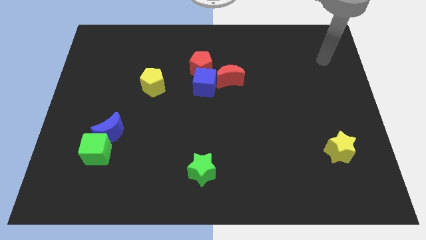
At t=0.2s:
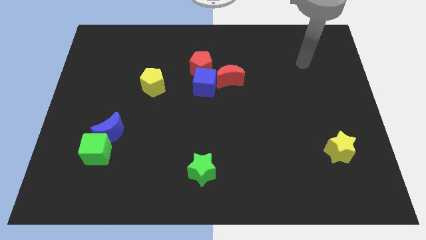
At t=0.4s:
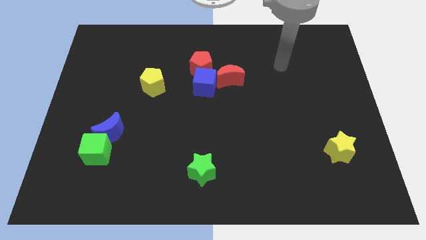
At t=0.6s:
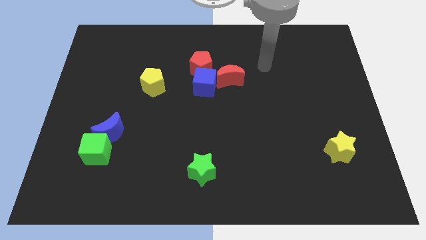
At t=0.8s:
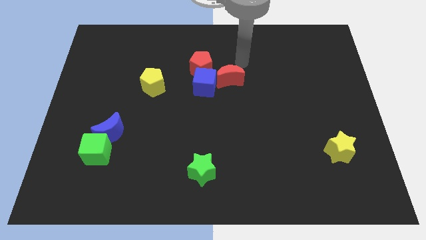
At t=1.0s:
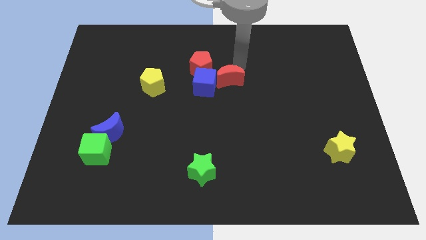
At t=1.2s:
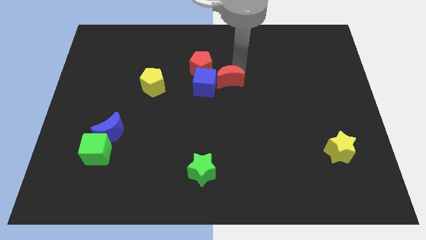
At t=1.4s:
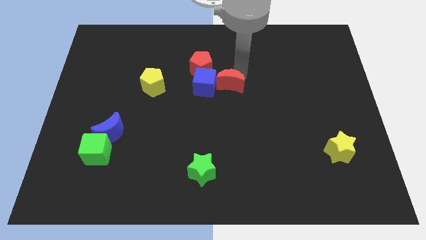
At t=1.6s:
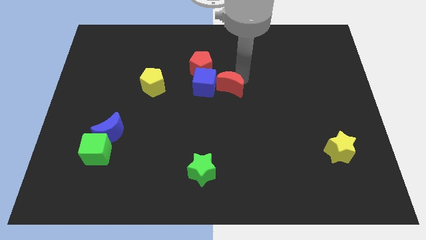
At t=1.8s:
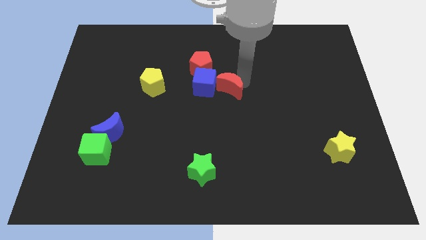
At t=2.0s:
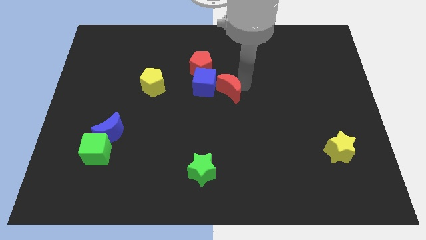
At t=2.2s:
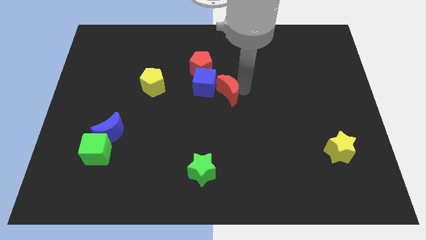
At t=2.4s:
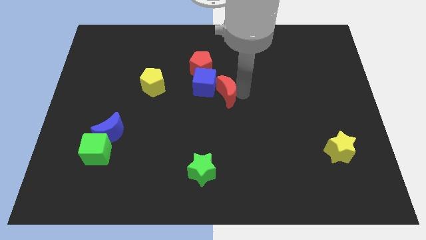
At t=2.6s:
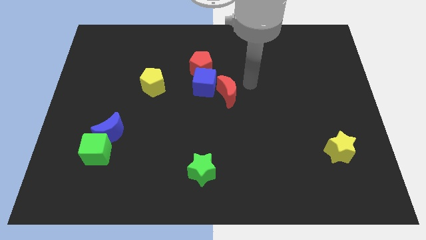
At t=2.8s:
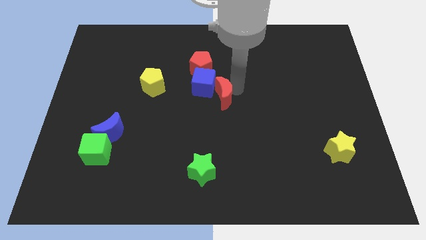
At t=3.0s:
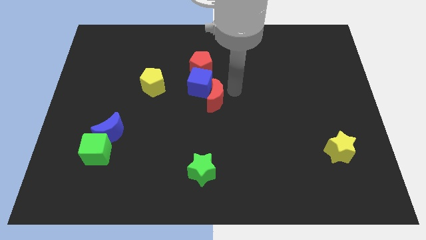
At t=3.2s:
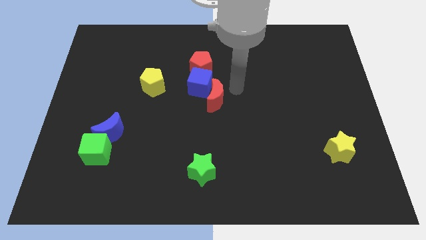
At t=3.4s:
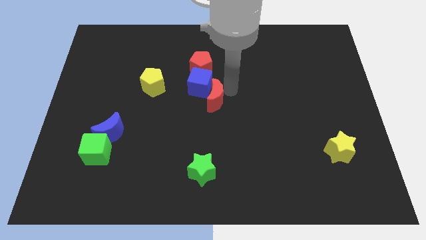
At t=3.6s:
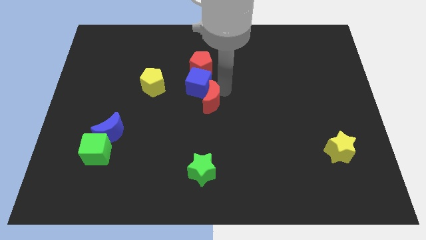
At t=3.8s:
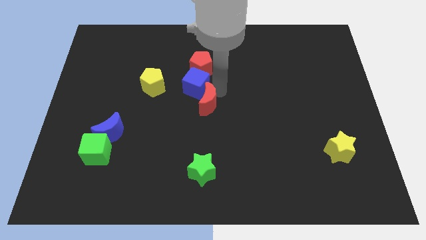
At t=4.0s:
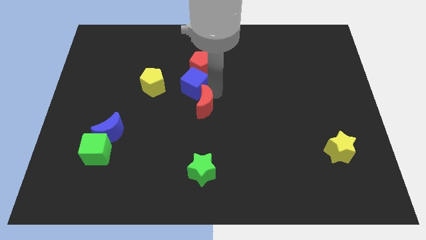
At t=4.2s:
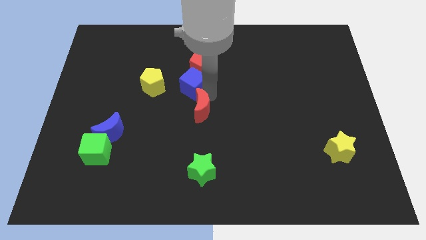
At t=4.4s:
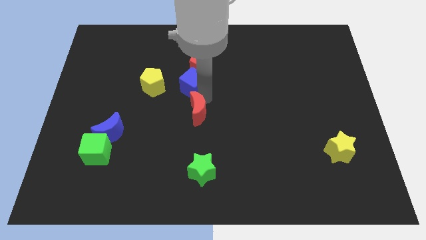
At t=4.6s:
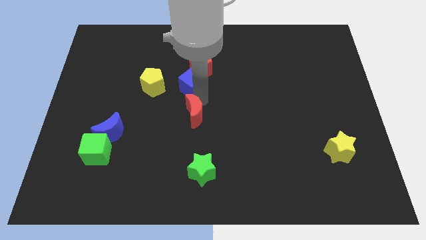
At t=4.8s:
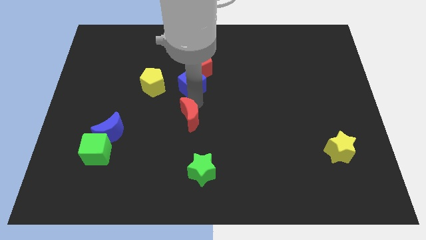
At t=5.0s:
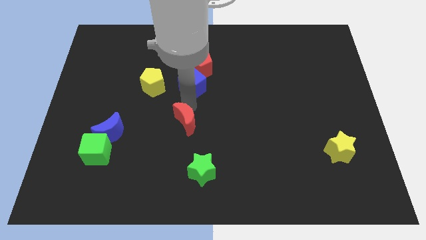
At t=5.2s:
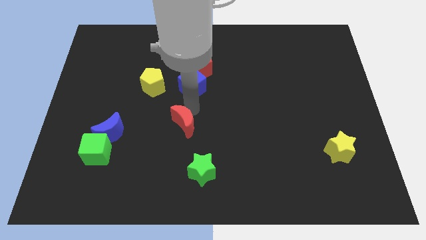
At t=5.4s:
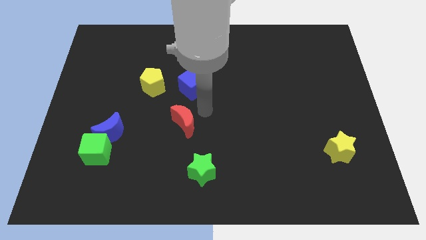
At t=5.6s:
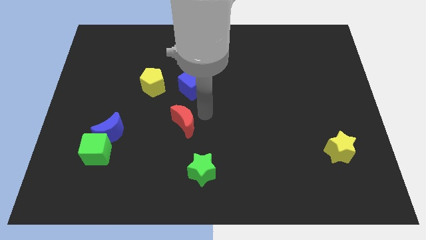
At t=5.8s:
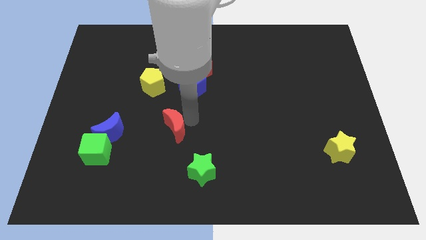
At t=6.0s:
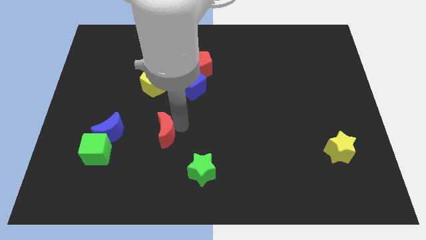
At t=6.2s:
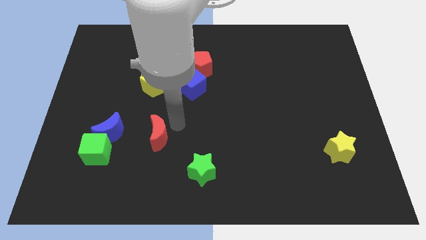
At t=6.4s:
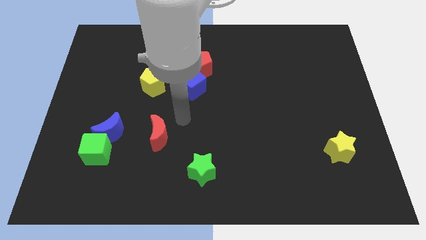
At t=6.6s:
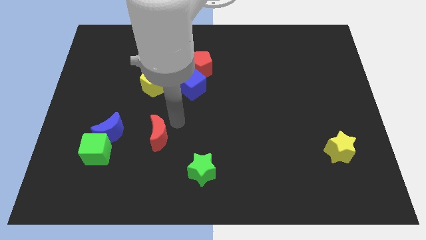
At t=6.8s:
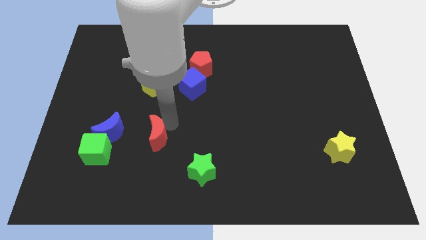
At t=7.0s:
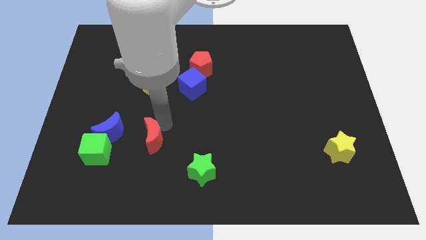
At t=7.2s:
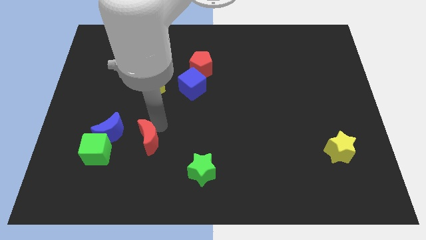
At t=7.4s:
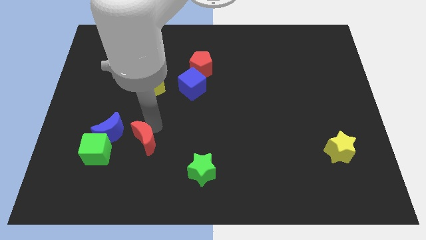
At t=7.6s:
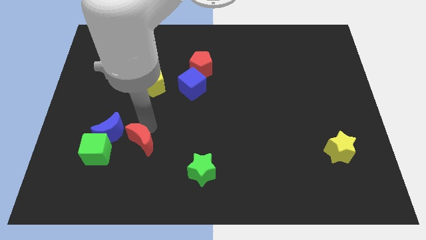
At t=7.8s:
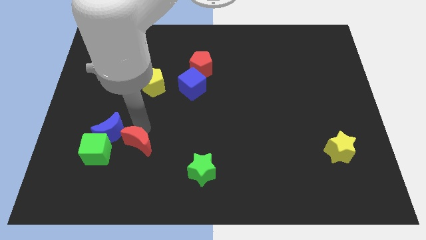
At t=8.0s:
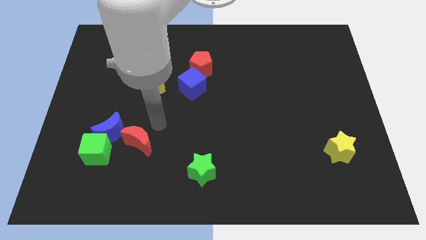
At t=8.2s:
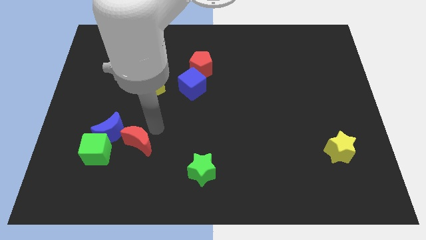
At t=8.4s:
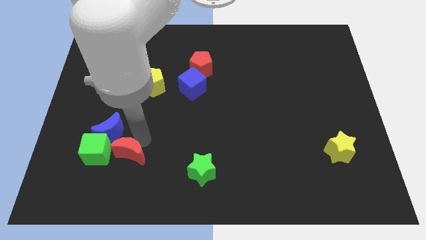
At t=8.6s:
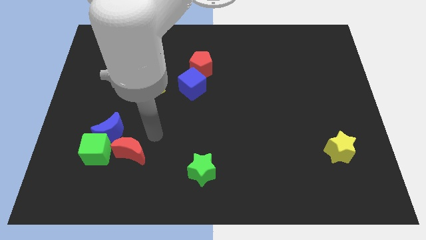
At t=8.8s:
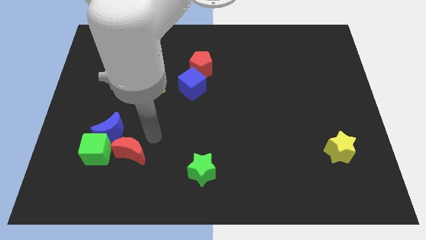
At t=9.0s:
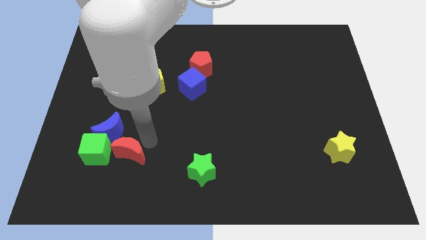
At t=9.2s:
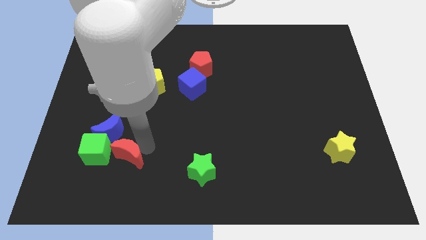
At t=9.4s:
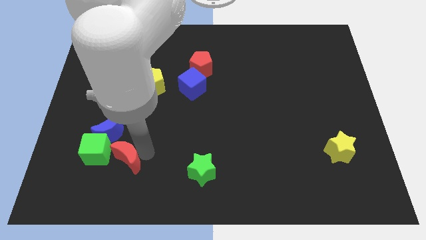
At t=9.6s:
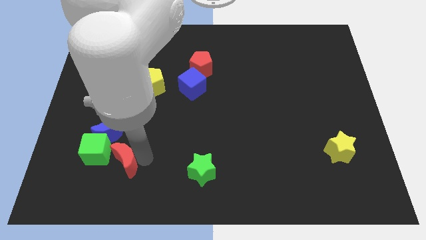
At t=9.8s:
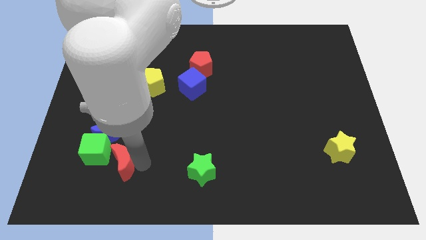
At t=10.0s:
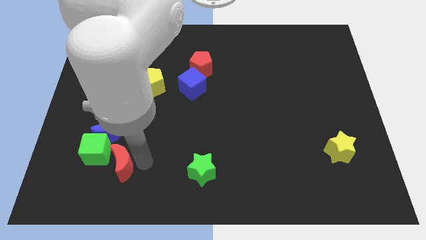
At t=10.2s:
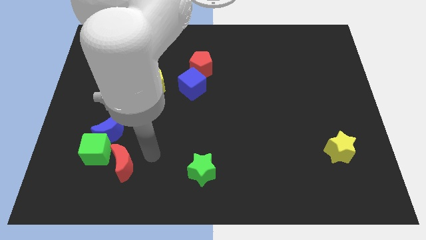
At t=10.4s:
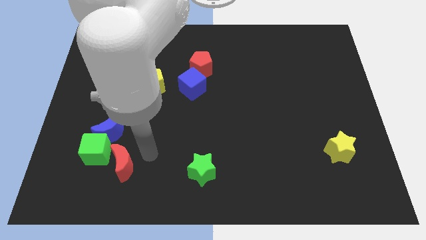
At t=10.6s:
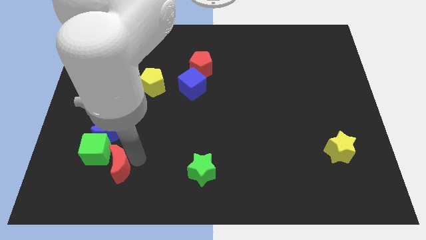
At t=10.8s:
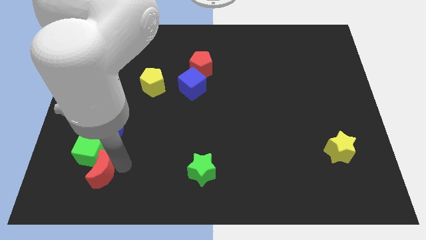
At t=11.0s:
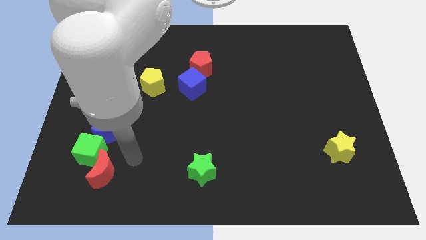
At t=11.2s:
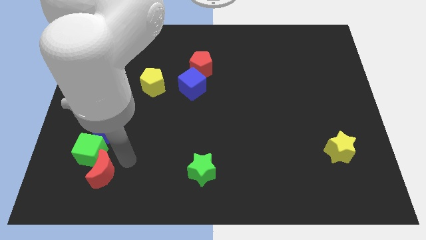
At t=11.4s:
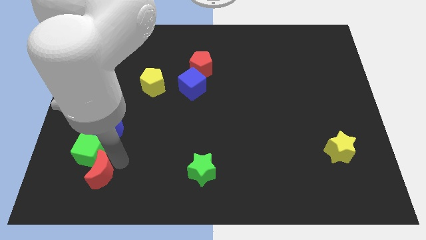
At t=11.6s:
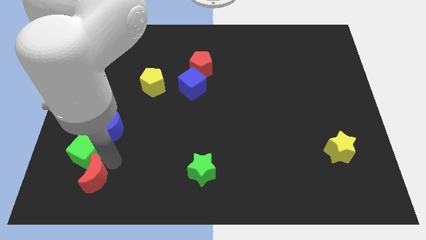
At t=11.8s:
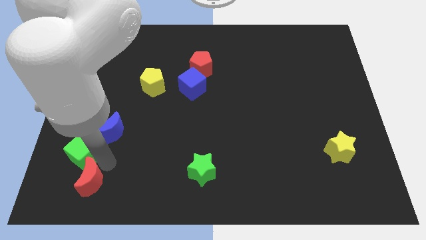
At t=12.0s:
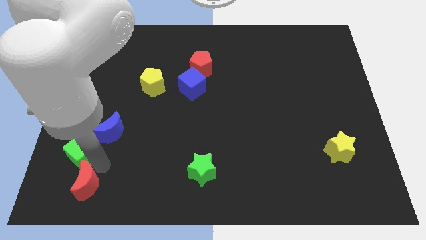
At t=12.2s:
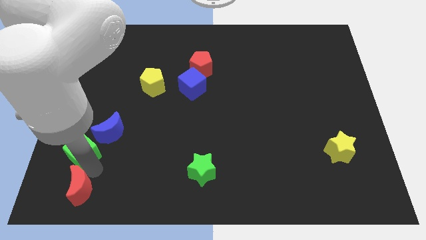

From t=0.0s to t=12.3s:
move the red moon to the bottom left corner

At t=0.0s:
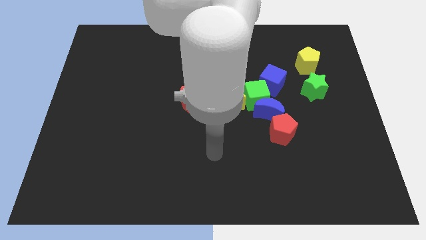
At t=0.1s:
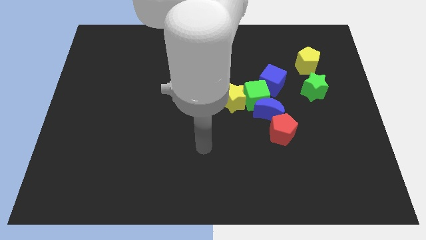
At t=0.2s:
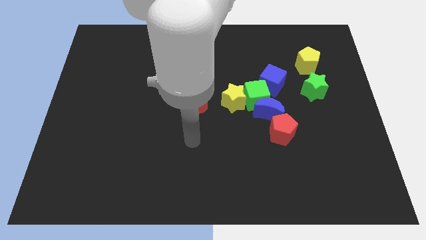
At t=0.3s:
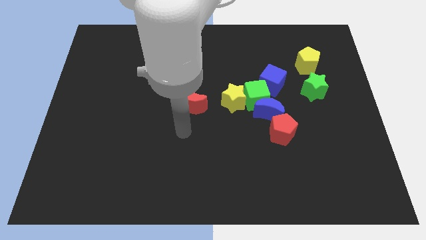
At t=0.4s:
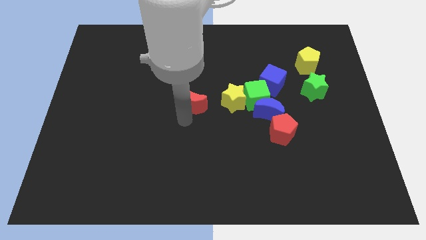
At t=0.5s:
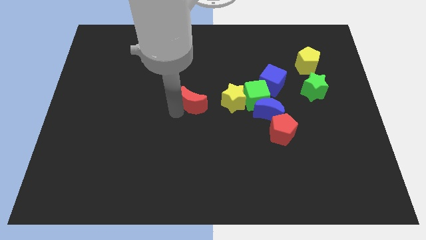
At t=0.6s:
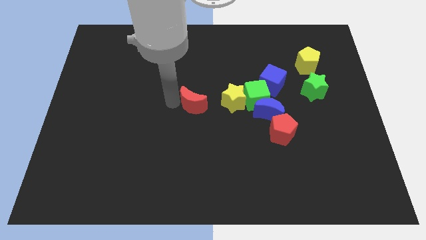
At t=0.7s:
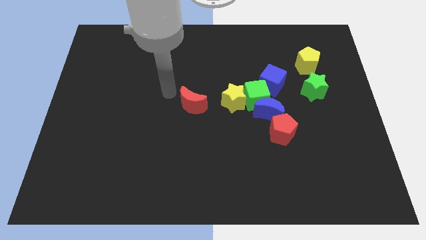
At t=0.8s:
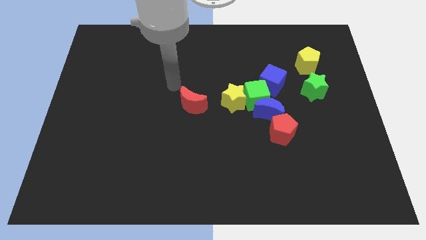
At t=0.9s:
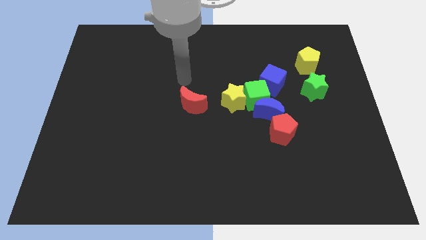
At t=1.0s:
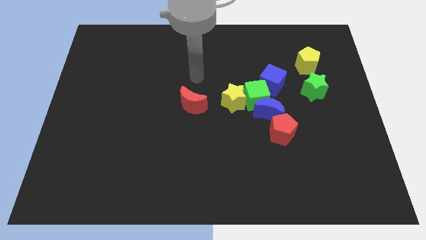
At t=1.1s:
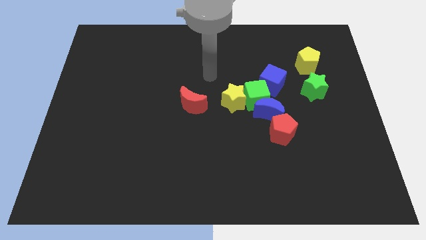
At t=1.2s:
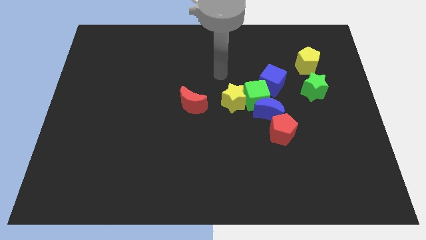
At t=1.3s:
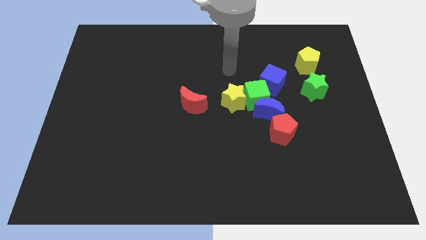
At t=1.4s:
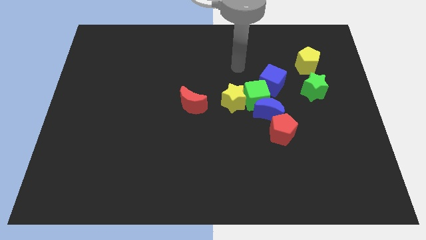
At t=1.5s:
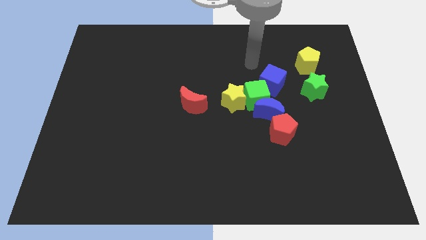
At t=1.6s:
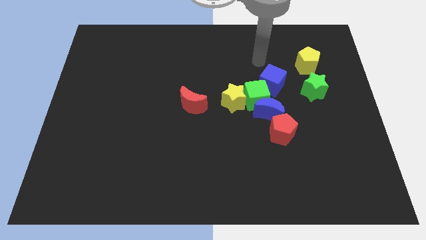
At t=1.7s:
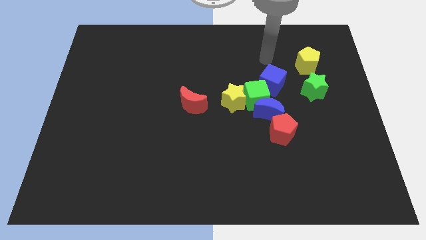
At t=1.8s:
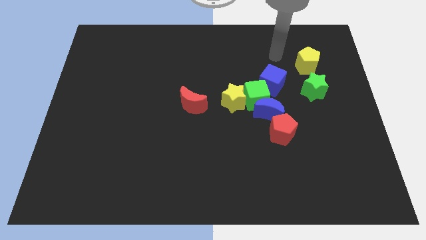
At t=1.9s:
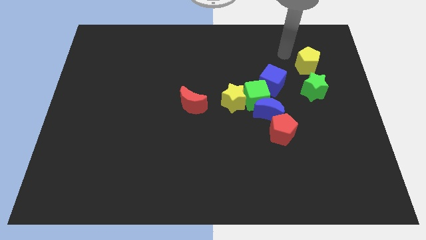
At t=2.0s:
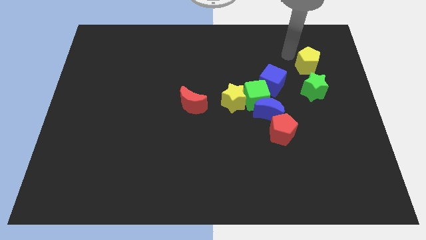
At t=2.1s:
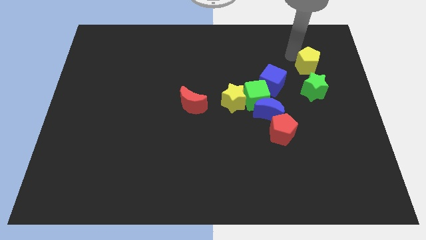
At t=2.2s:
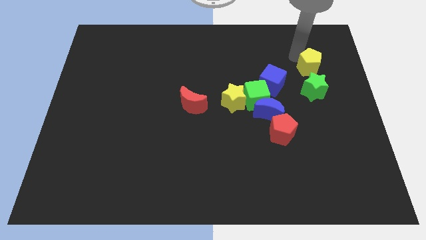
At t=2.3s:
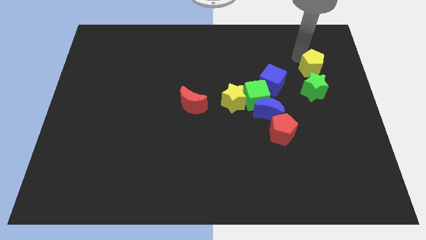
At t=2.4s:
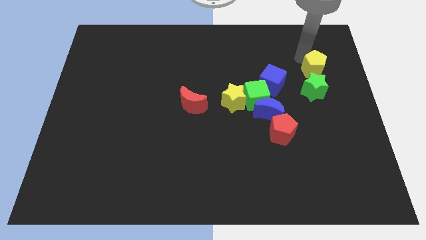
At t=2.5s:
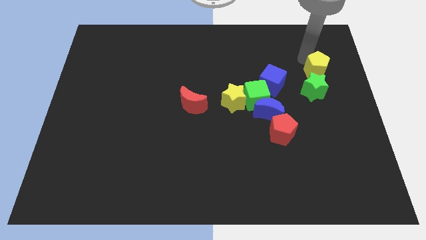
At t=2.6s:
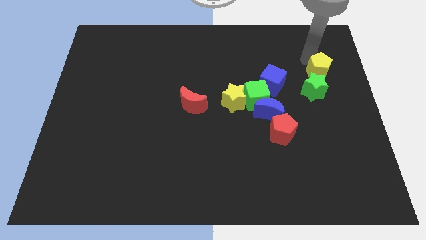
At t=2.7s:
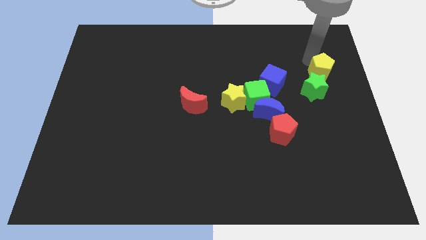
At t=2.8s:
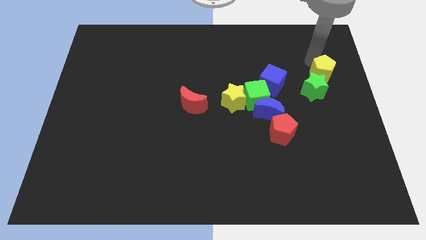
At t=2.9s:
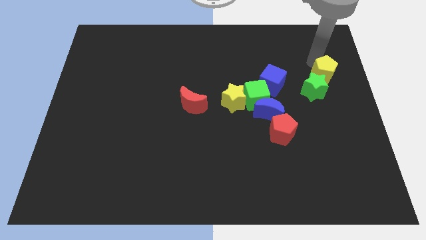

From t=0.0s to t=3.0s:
move the yellow pentagon to the center right
